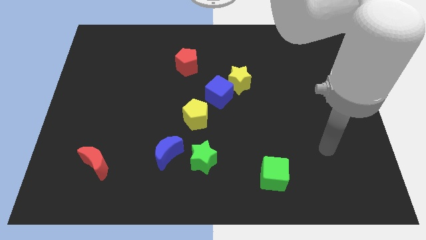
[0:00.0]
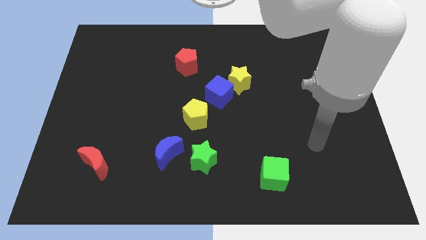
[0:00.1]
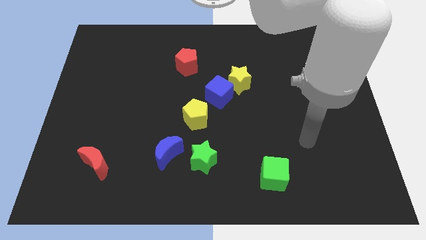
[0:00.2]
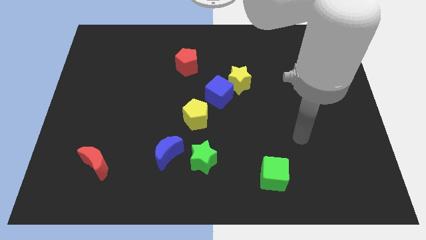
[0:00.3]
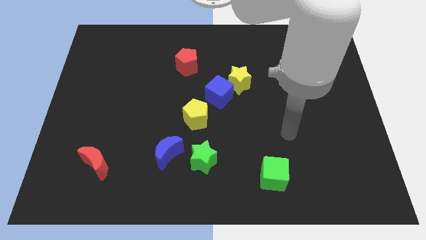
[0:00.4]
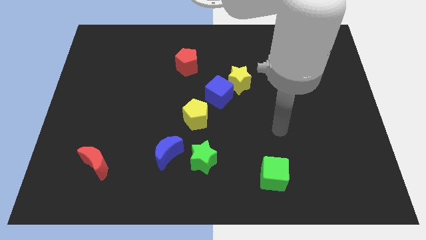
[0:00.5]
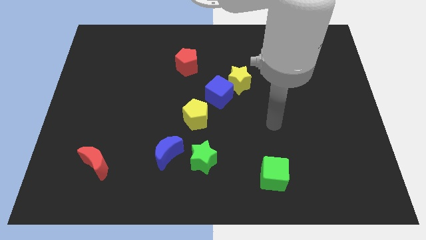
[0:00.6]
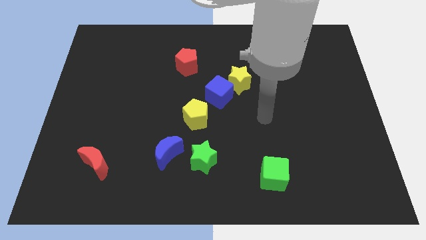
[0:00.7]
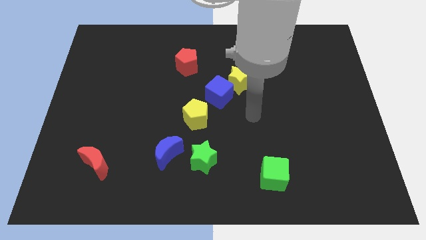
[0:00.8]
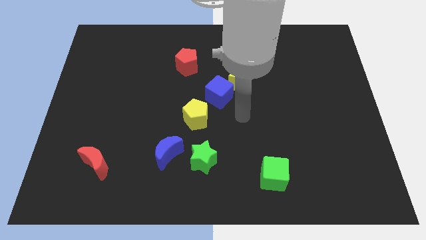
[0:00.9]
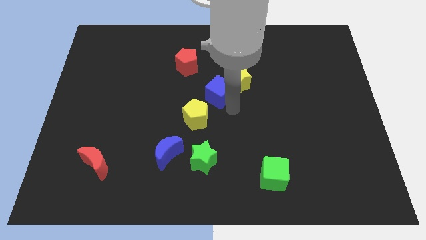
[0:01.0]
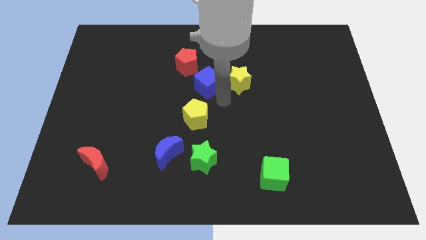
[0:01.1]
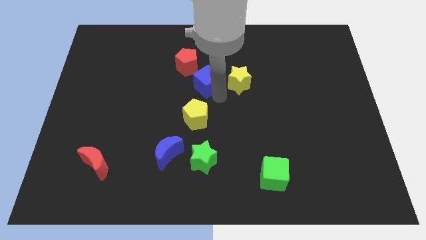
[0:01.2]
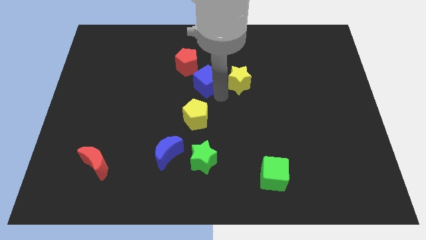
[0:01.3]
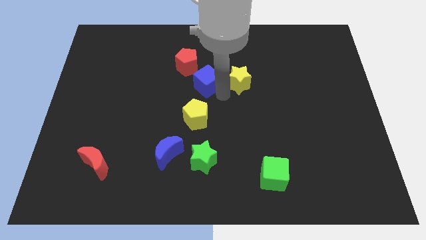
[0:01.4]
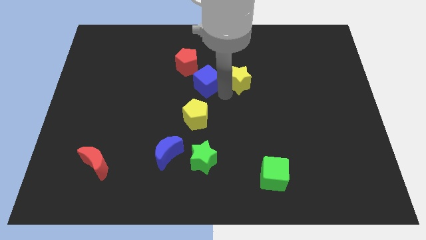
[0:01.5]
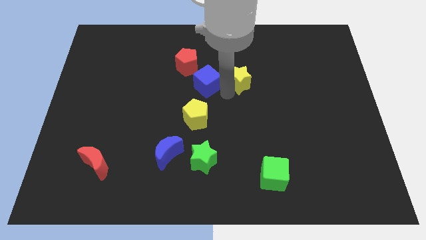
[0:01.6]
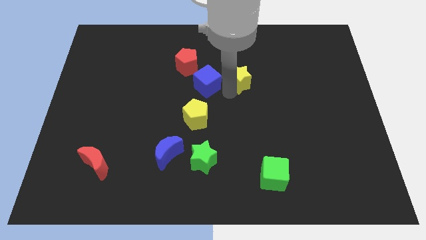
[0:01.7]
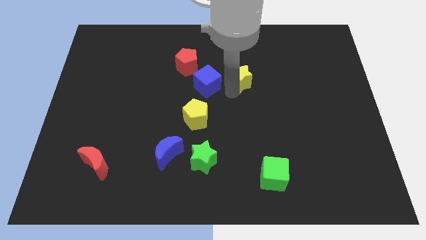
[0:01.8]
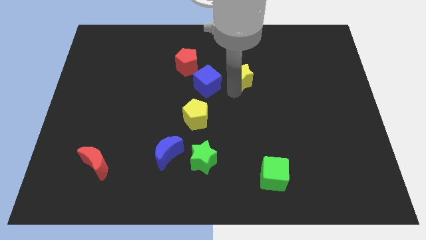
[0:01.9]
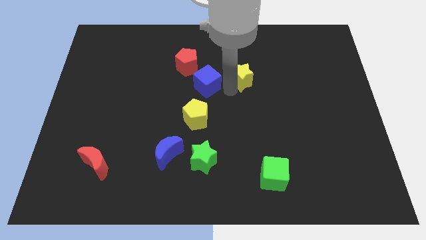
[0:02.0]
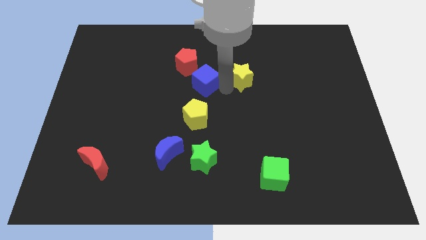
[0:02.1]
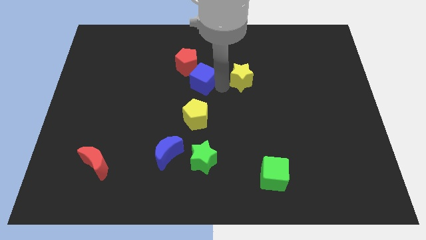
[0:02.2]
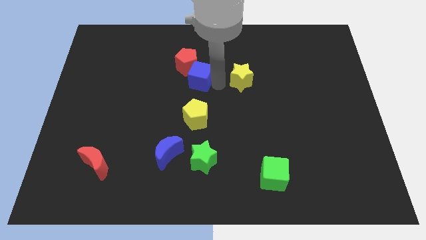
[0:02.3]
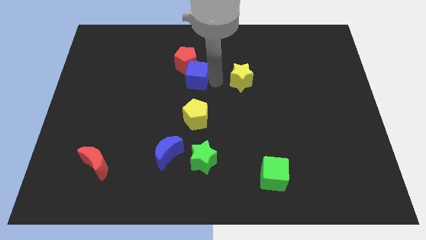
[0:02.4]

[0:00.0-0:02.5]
pull the yellow star apart from the blue cube

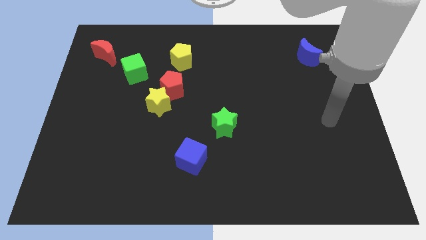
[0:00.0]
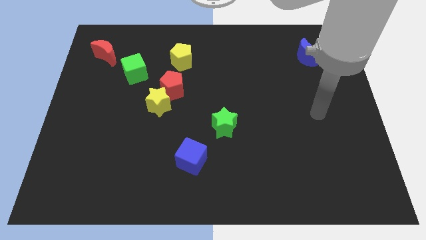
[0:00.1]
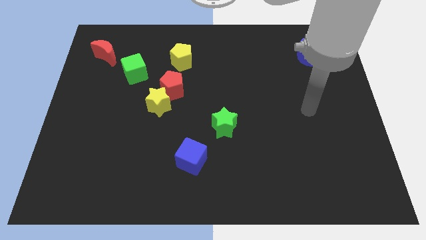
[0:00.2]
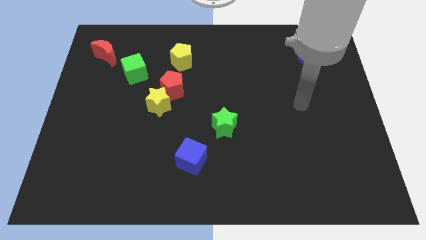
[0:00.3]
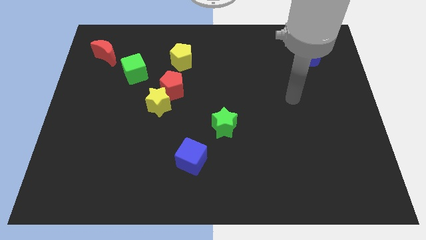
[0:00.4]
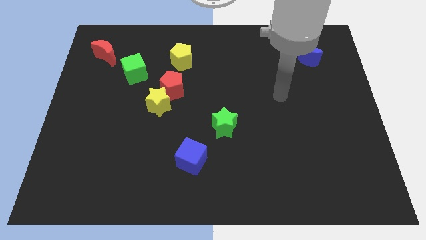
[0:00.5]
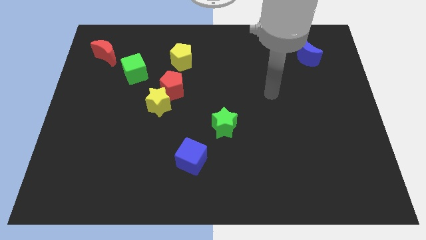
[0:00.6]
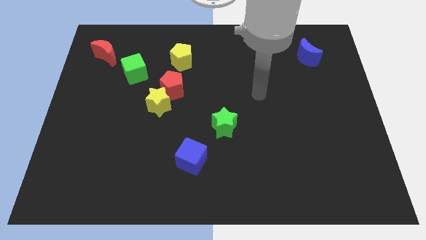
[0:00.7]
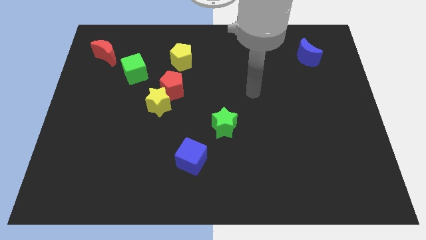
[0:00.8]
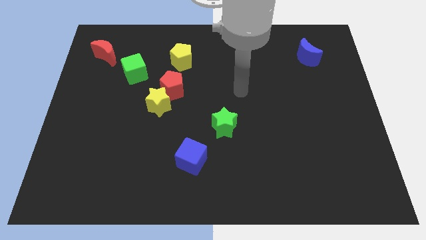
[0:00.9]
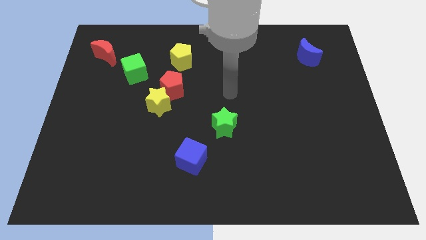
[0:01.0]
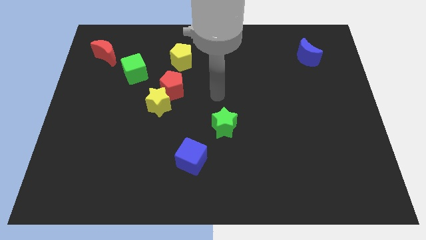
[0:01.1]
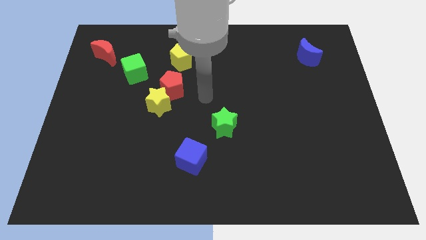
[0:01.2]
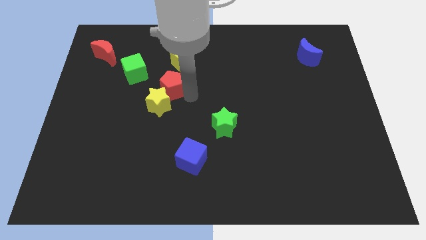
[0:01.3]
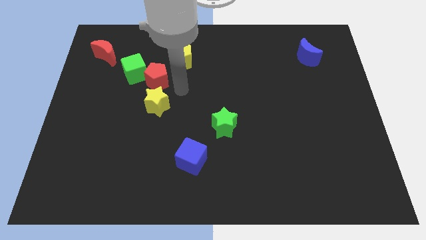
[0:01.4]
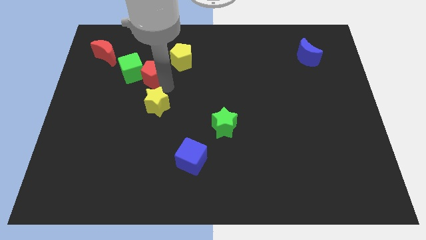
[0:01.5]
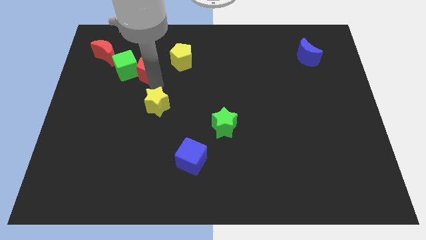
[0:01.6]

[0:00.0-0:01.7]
move the yellow star away from the red pentagon

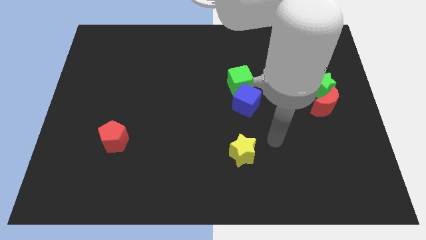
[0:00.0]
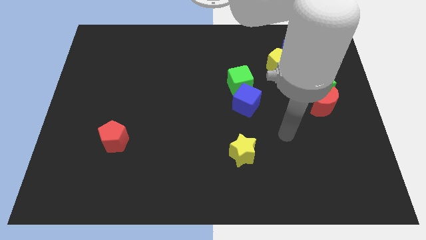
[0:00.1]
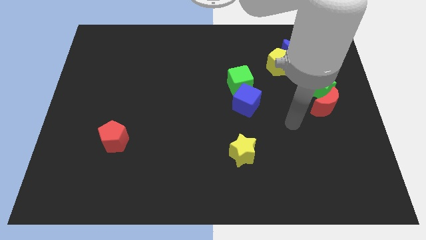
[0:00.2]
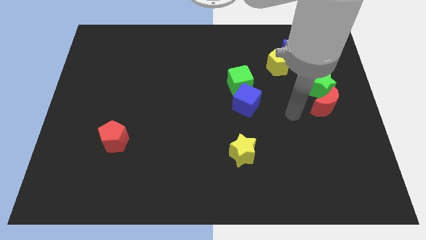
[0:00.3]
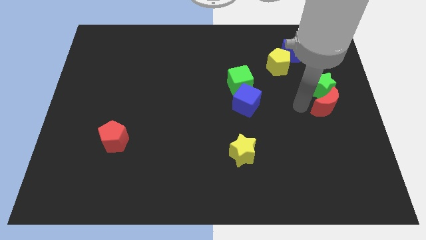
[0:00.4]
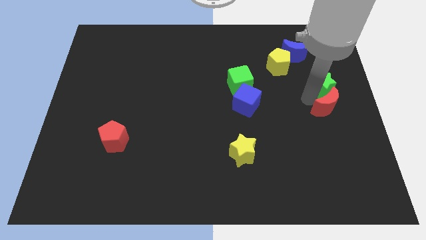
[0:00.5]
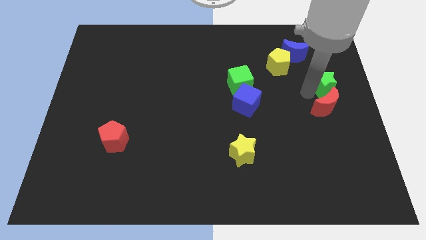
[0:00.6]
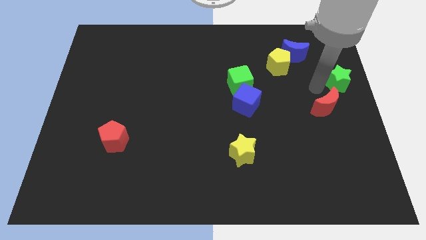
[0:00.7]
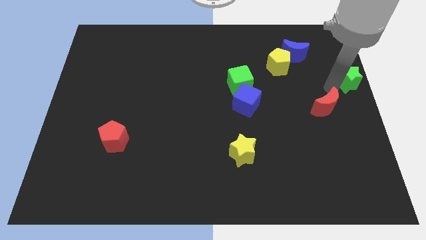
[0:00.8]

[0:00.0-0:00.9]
pull the red moon apart from the green star

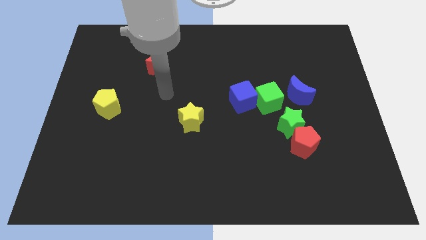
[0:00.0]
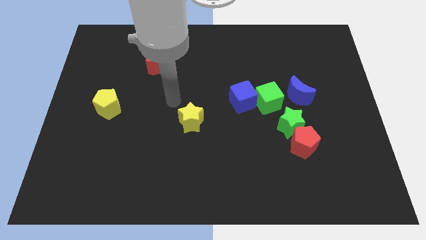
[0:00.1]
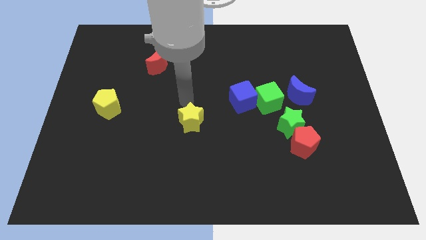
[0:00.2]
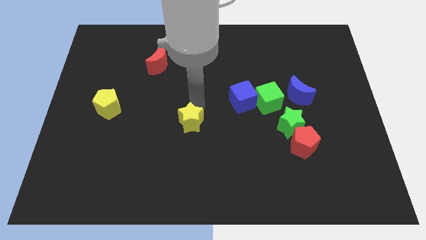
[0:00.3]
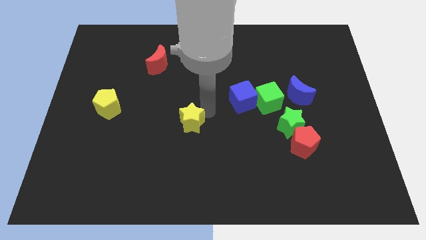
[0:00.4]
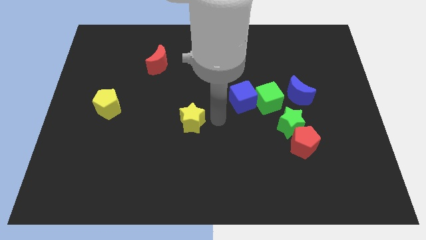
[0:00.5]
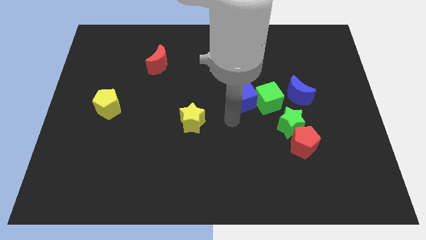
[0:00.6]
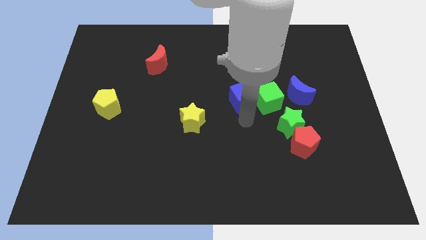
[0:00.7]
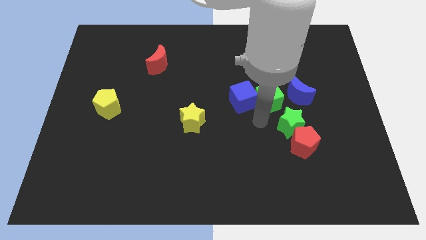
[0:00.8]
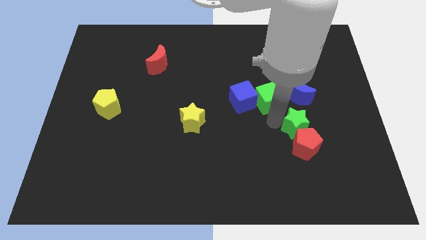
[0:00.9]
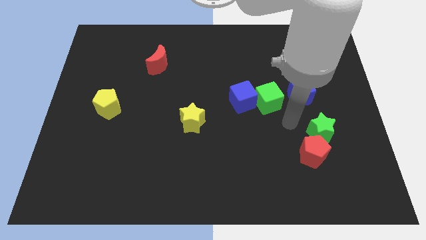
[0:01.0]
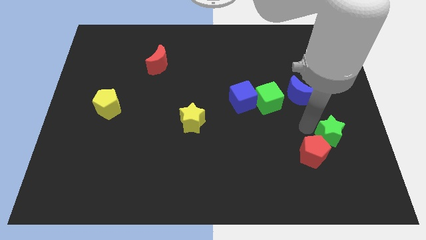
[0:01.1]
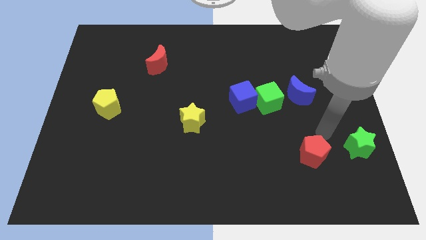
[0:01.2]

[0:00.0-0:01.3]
move the red pentagon away from the green star

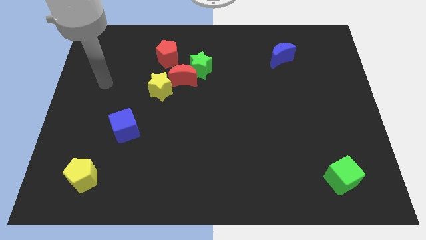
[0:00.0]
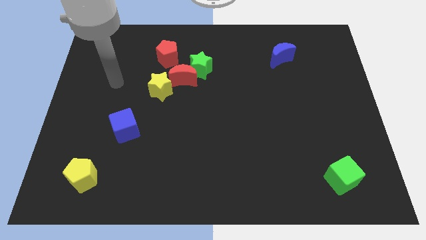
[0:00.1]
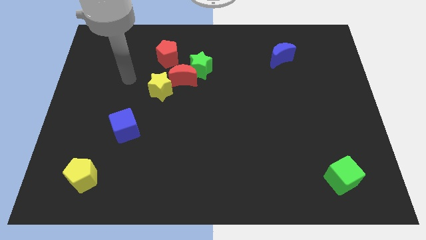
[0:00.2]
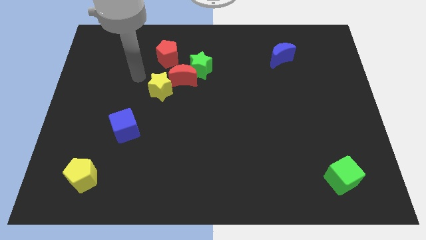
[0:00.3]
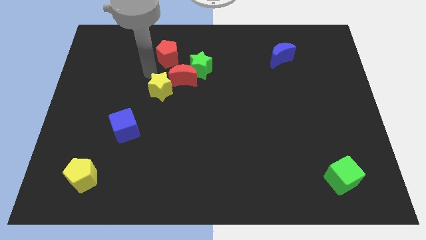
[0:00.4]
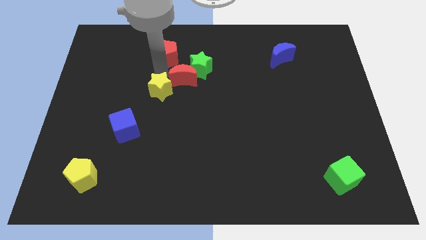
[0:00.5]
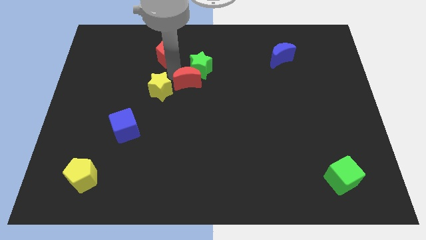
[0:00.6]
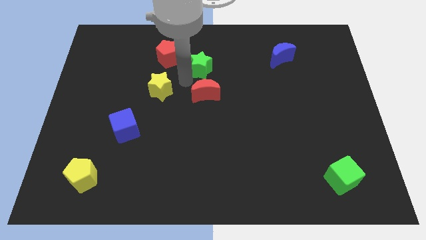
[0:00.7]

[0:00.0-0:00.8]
separate the yellow star from the red moon

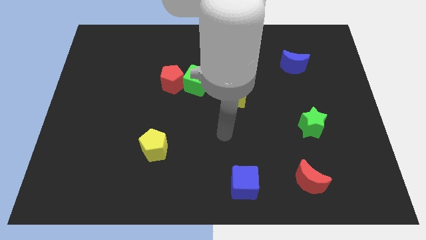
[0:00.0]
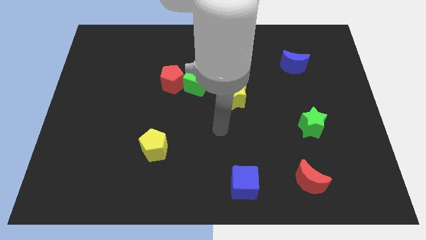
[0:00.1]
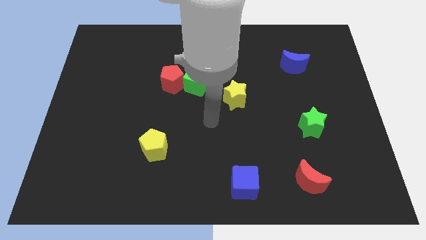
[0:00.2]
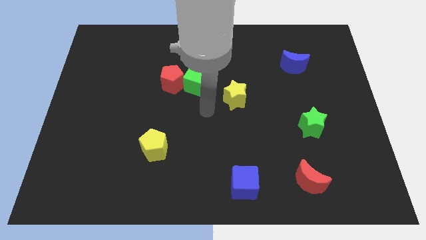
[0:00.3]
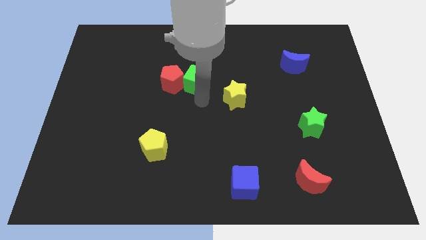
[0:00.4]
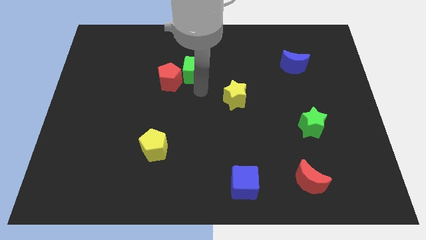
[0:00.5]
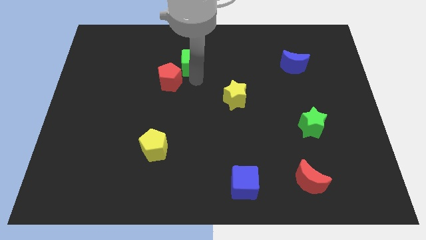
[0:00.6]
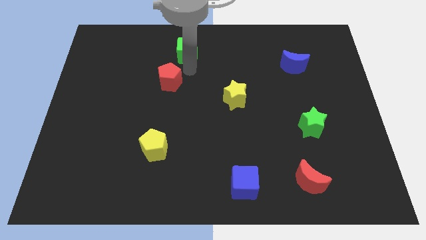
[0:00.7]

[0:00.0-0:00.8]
pull the red pentagon apart from the green cube

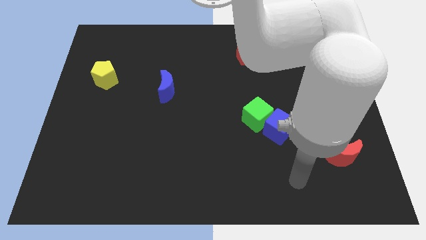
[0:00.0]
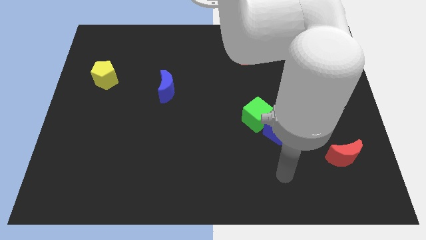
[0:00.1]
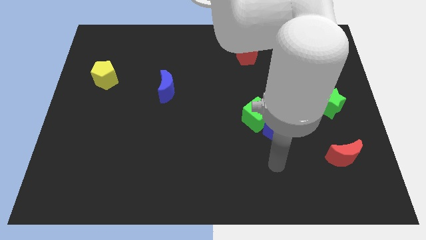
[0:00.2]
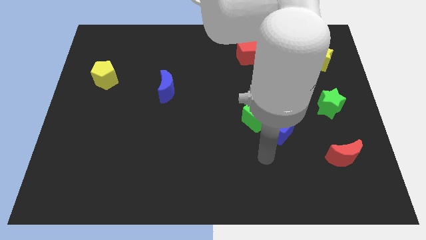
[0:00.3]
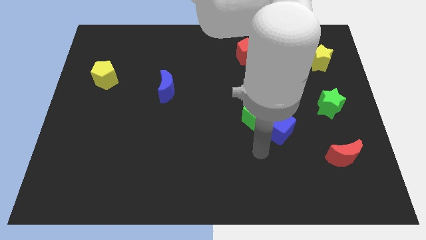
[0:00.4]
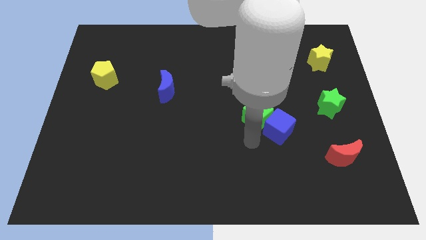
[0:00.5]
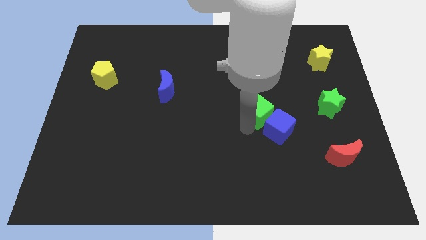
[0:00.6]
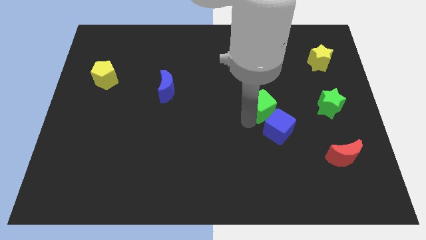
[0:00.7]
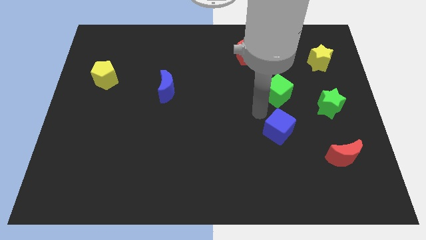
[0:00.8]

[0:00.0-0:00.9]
pull the blue cube apart from the green cube

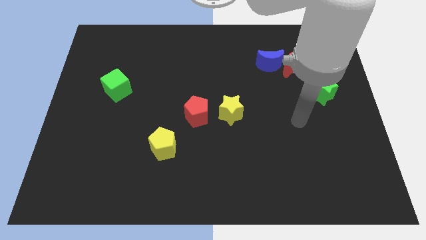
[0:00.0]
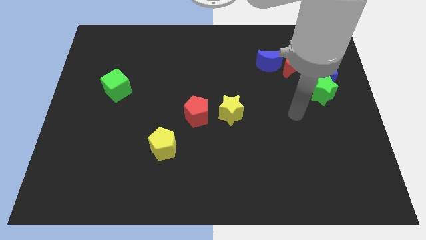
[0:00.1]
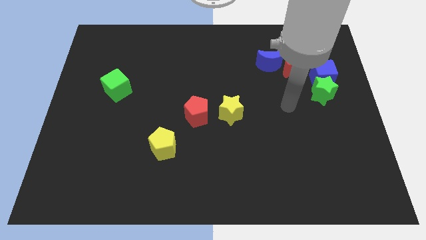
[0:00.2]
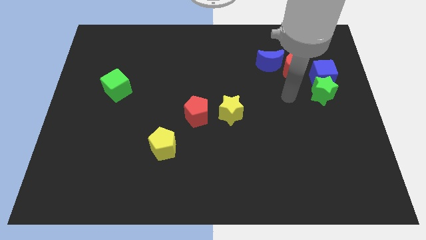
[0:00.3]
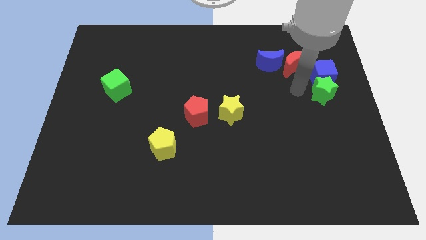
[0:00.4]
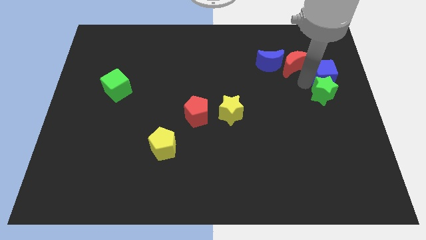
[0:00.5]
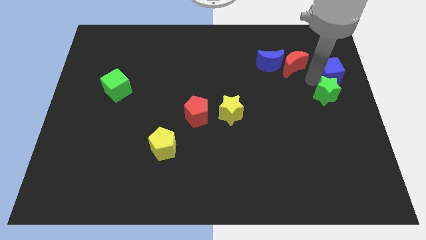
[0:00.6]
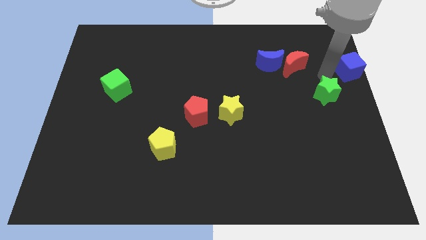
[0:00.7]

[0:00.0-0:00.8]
move the green star away from the blue cube
